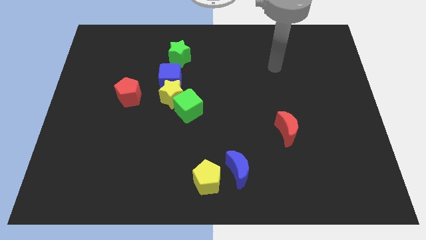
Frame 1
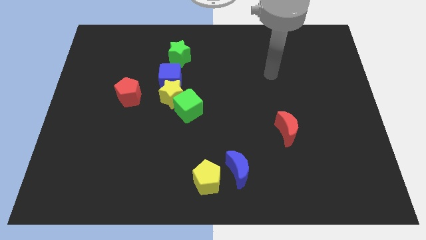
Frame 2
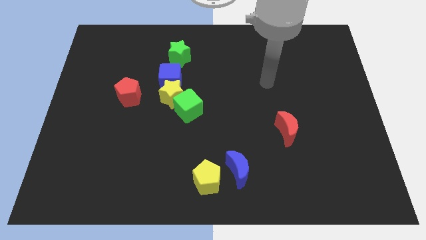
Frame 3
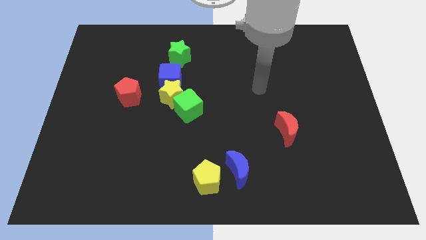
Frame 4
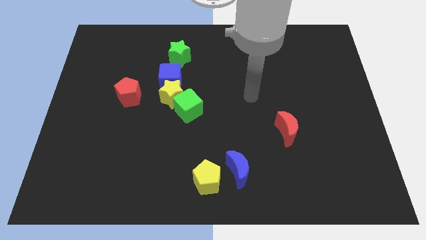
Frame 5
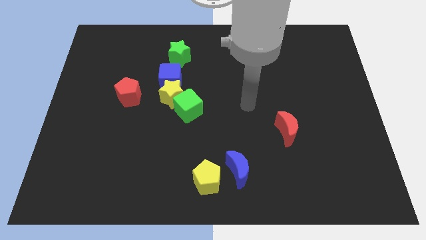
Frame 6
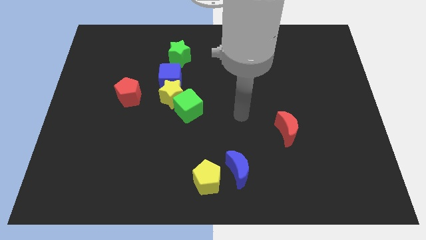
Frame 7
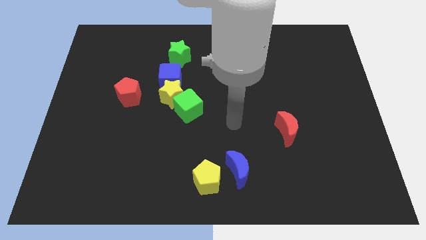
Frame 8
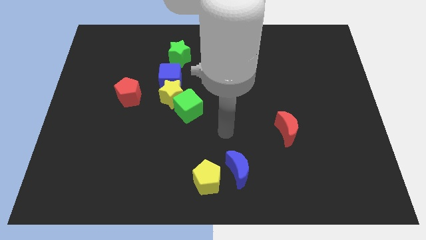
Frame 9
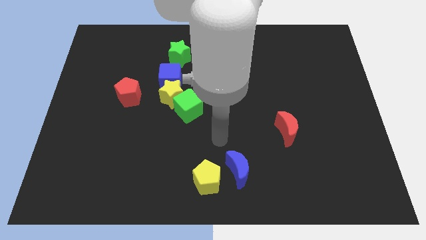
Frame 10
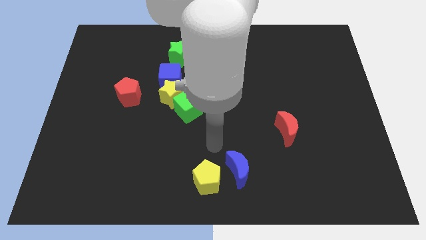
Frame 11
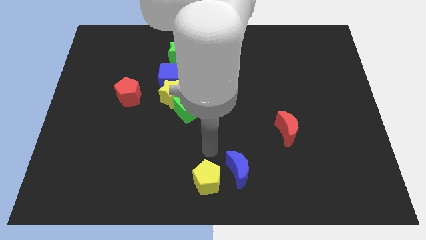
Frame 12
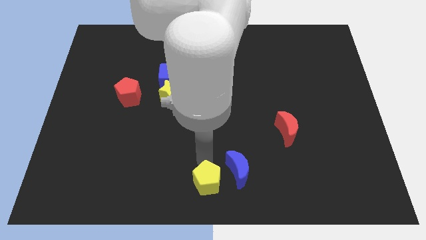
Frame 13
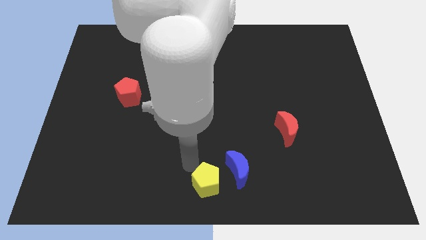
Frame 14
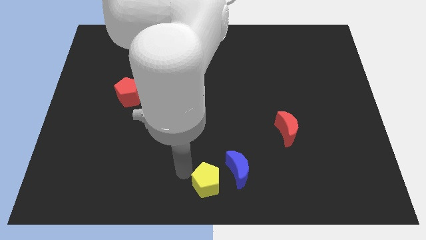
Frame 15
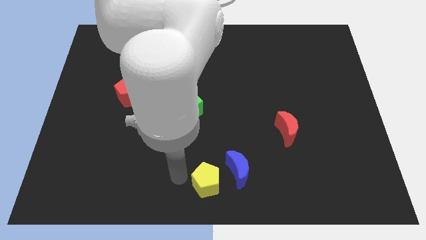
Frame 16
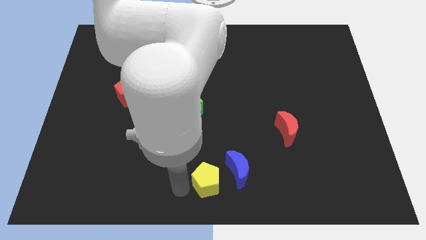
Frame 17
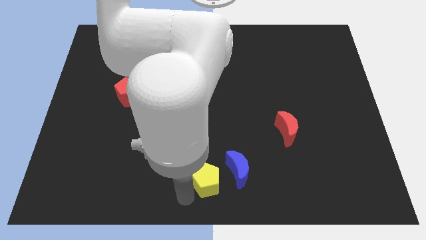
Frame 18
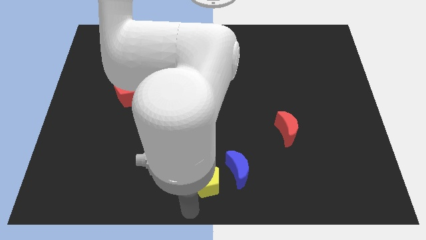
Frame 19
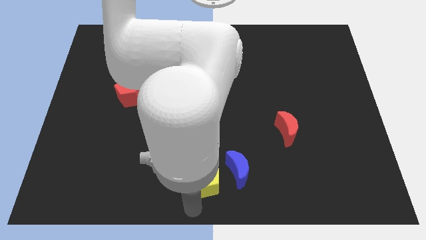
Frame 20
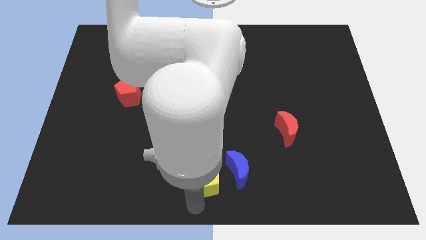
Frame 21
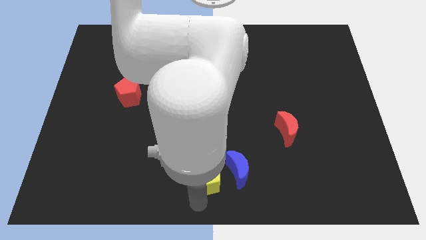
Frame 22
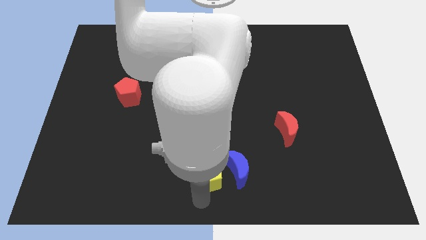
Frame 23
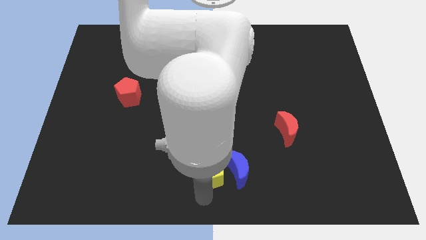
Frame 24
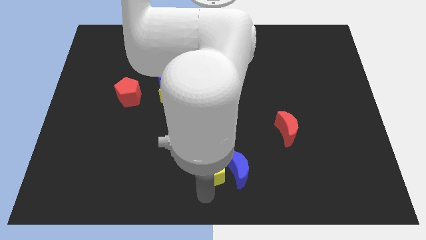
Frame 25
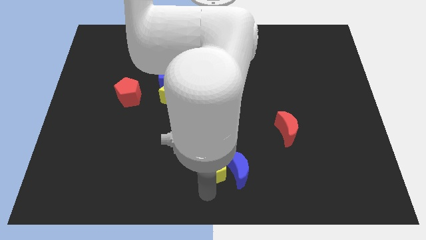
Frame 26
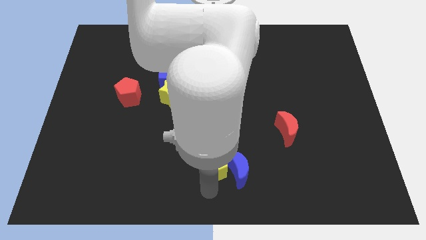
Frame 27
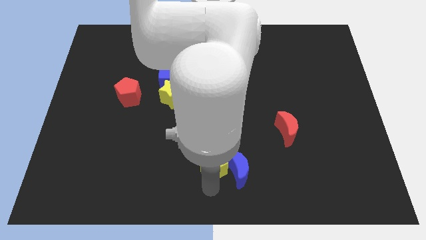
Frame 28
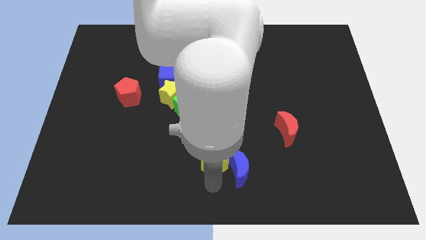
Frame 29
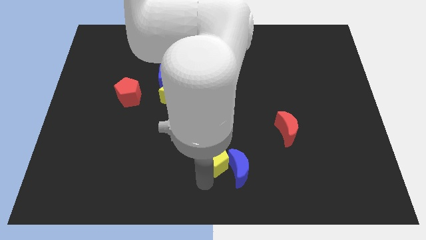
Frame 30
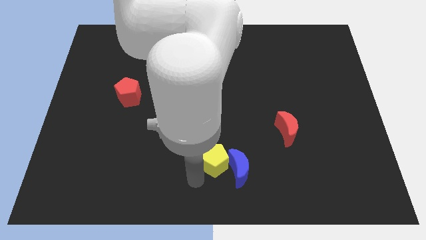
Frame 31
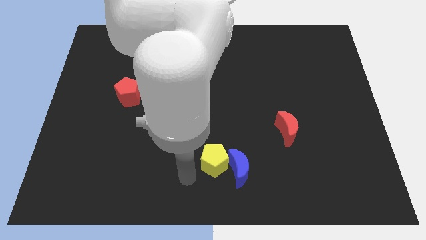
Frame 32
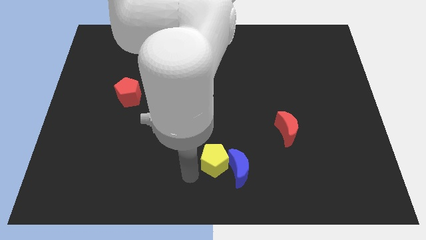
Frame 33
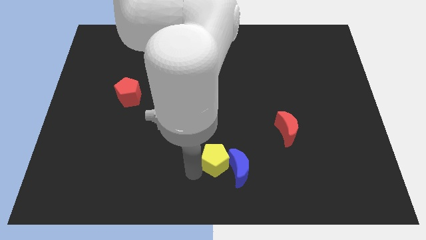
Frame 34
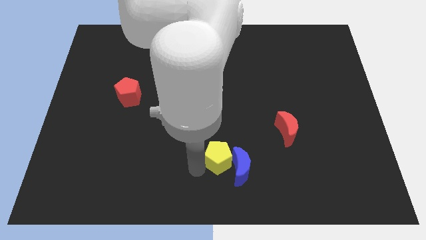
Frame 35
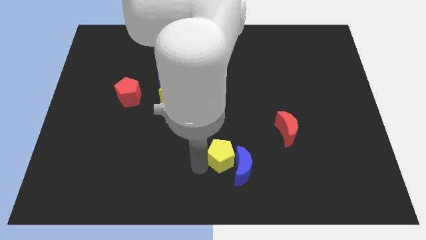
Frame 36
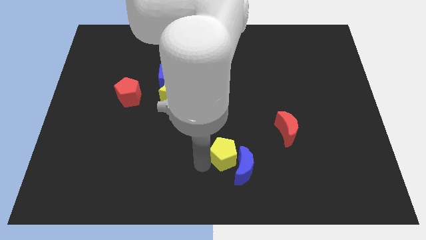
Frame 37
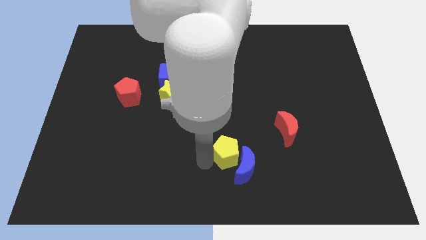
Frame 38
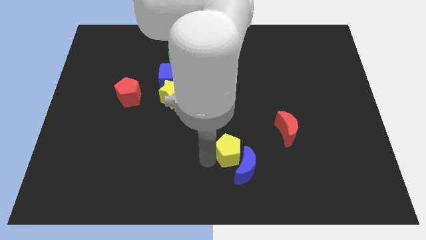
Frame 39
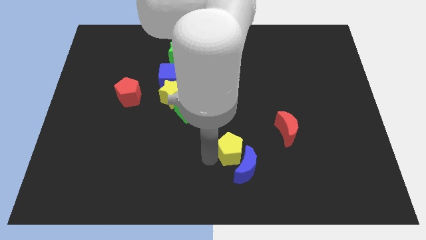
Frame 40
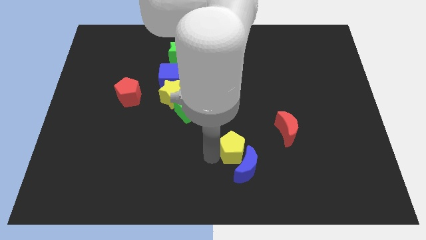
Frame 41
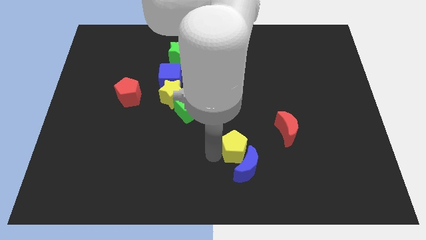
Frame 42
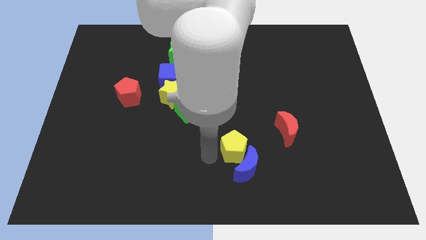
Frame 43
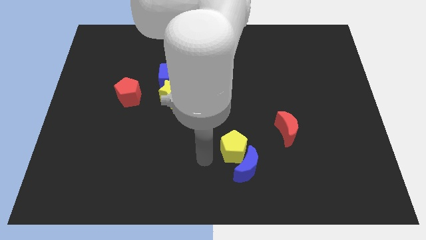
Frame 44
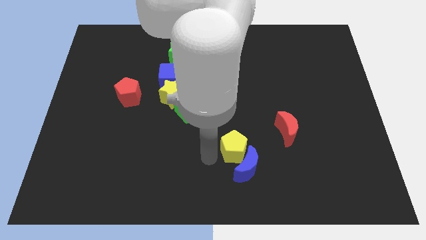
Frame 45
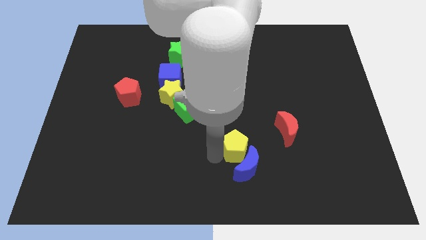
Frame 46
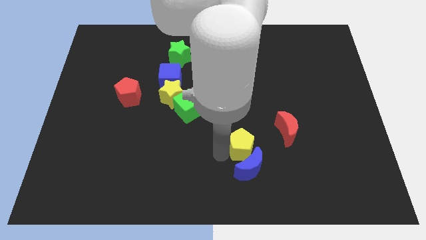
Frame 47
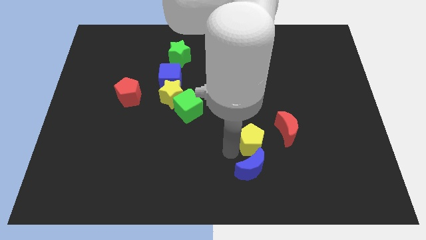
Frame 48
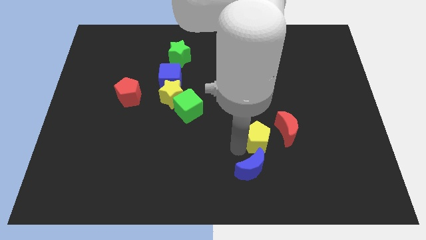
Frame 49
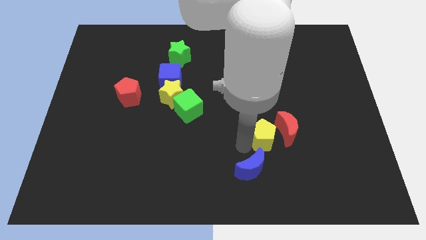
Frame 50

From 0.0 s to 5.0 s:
slide the yellow pentagon close to the red moon

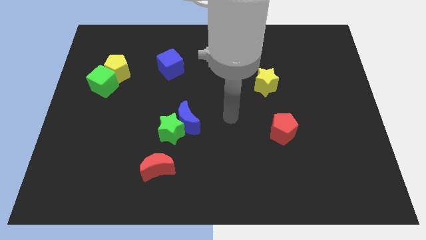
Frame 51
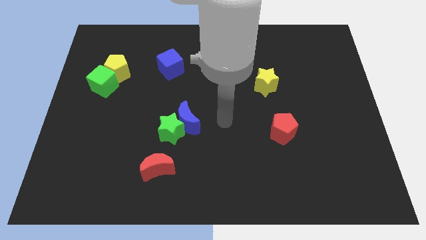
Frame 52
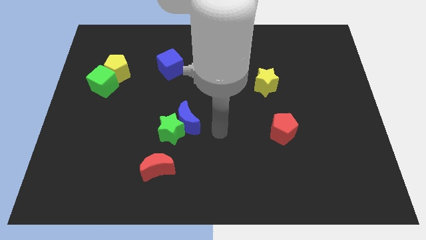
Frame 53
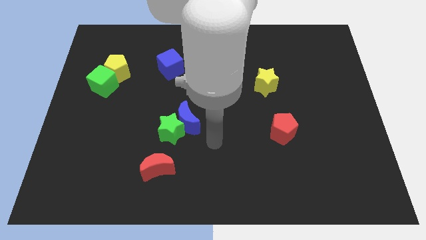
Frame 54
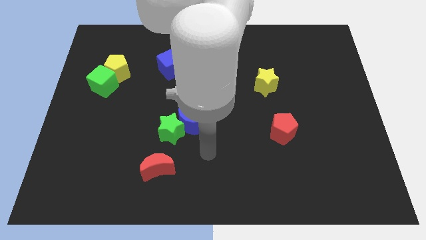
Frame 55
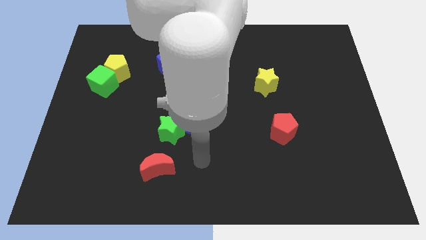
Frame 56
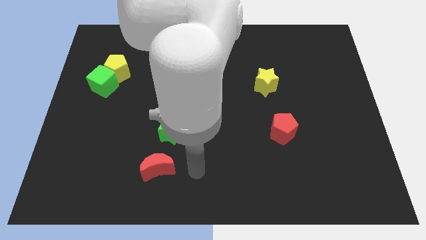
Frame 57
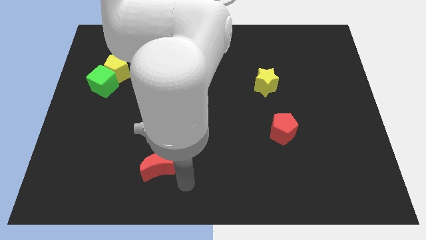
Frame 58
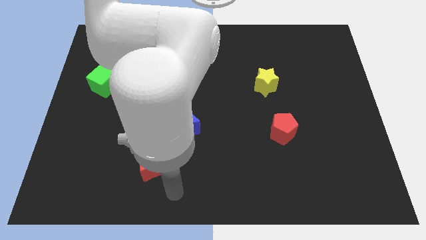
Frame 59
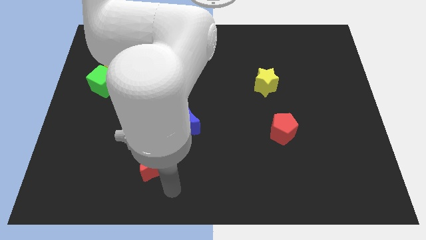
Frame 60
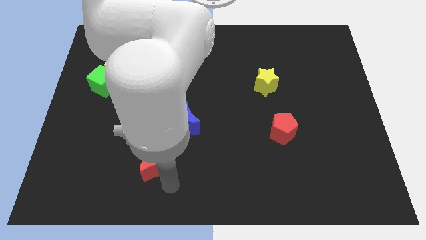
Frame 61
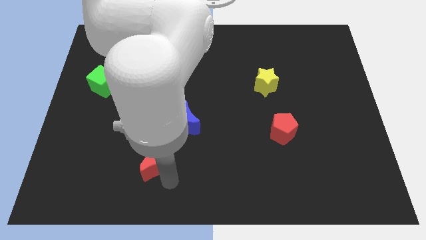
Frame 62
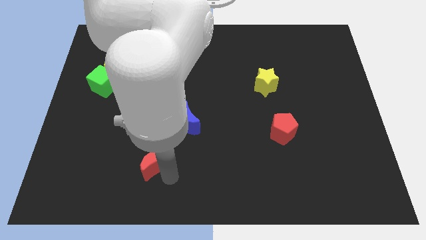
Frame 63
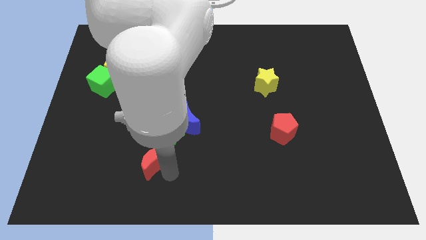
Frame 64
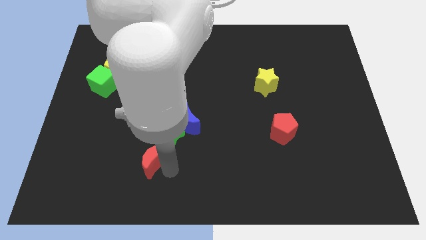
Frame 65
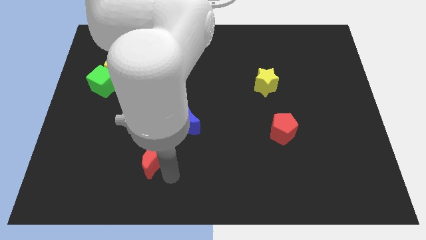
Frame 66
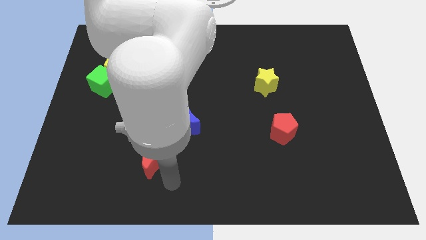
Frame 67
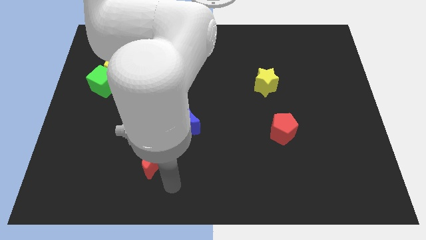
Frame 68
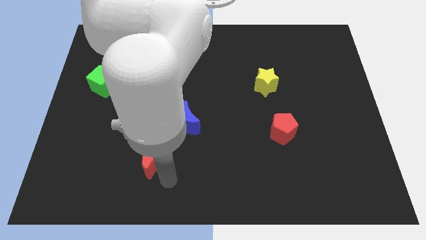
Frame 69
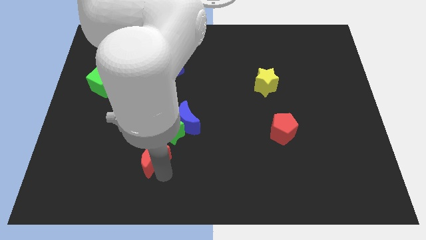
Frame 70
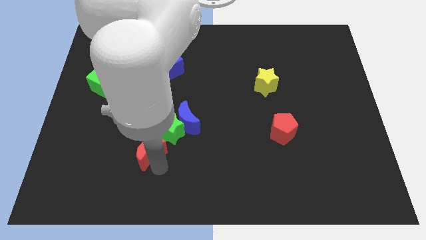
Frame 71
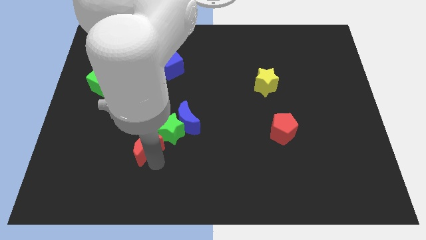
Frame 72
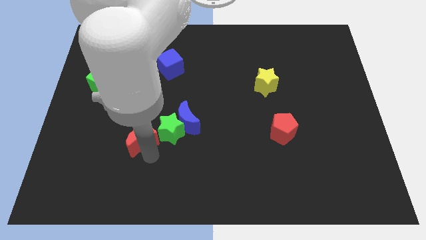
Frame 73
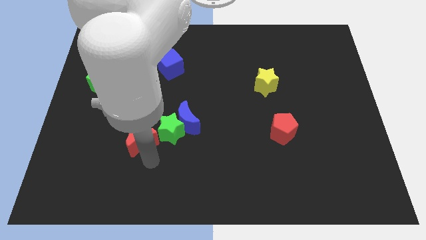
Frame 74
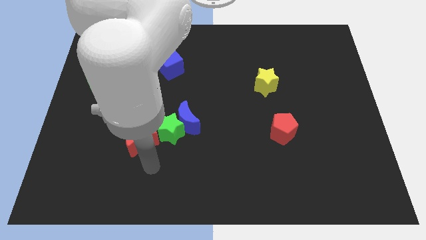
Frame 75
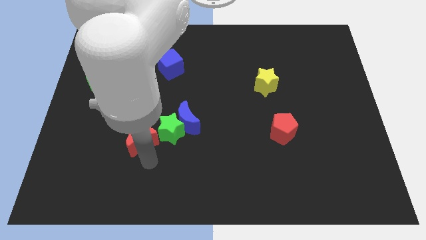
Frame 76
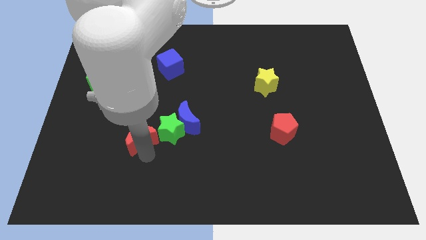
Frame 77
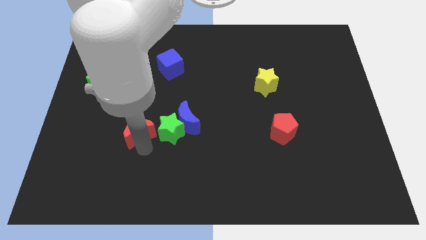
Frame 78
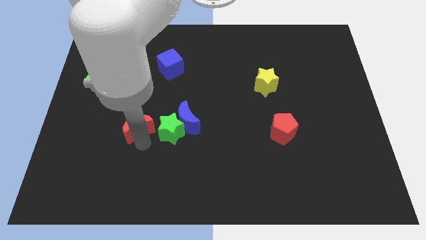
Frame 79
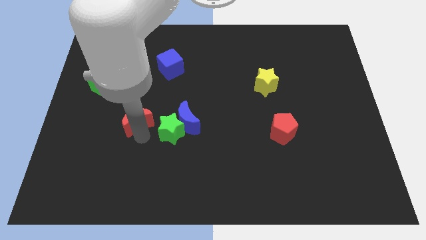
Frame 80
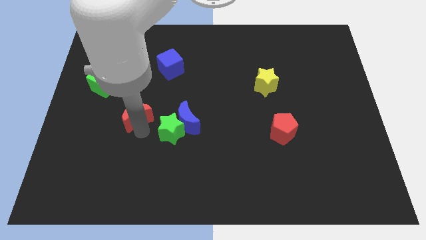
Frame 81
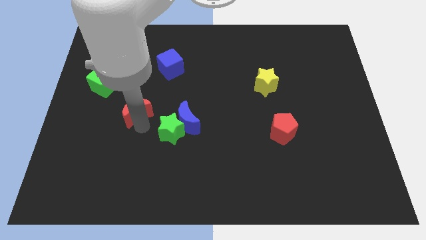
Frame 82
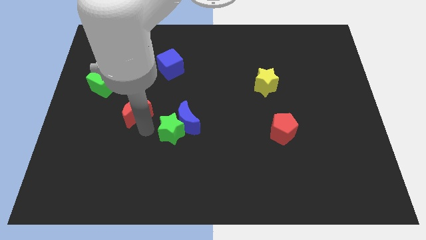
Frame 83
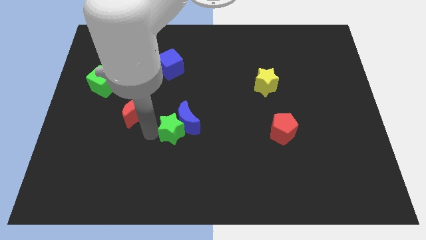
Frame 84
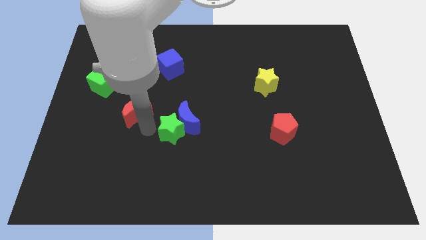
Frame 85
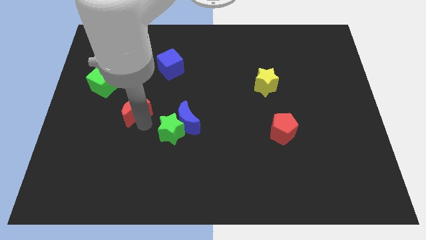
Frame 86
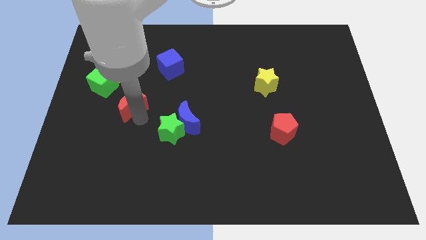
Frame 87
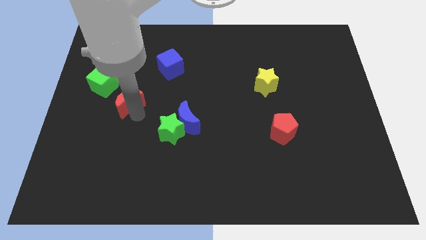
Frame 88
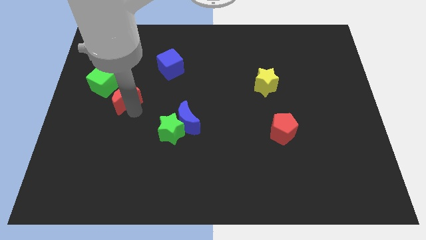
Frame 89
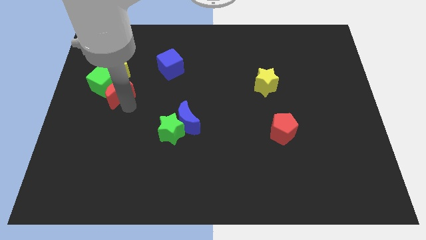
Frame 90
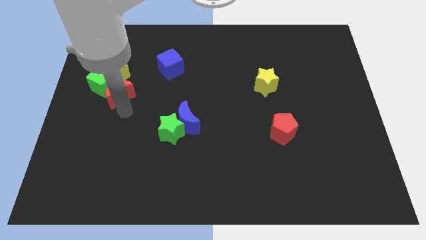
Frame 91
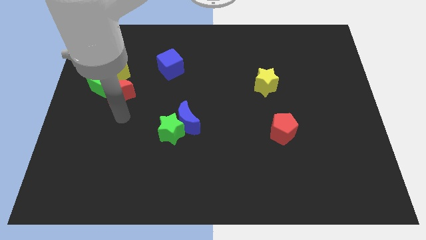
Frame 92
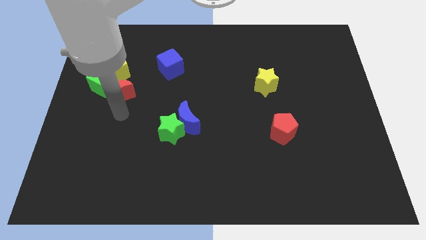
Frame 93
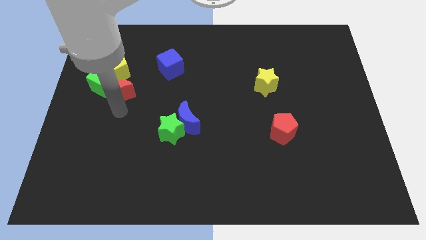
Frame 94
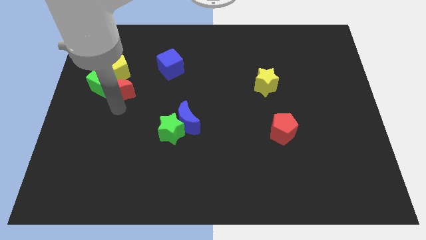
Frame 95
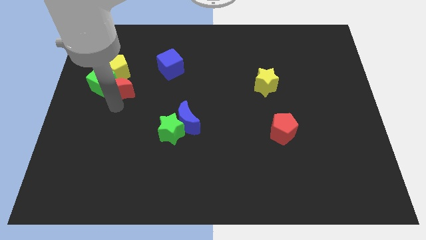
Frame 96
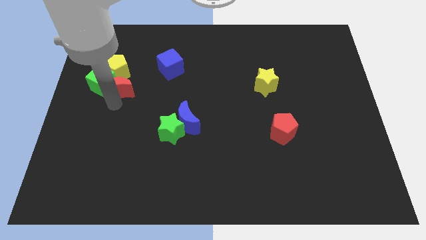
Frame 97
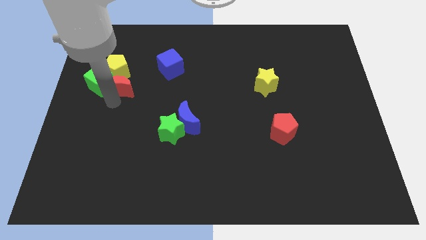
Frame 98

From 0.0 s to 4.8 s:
move the red moon towards the yellow pentagon
